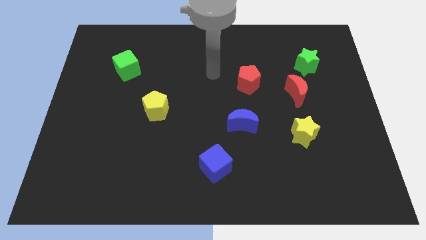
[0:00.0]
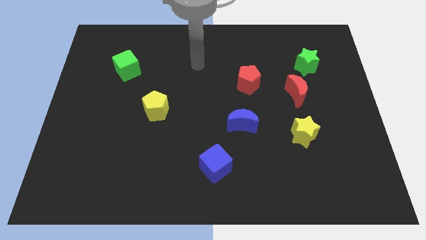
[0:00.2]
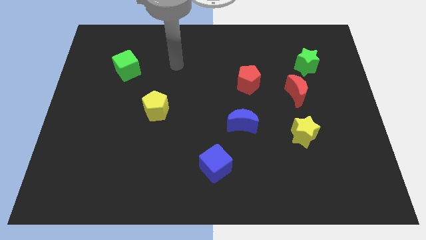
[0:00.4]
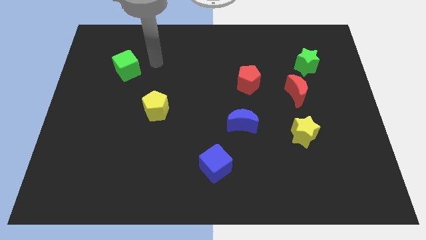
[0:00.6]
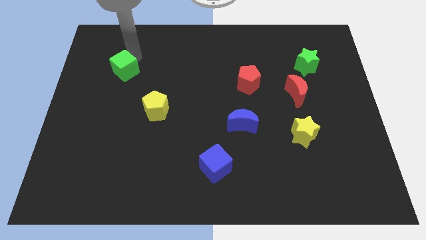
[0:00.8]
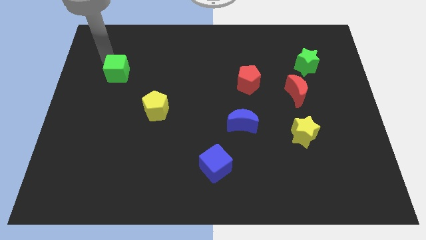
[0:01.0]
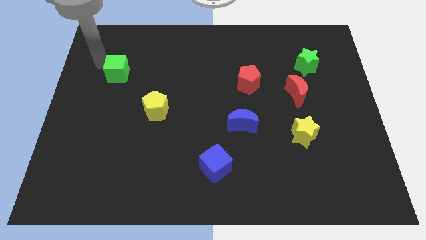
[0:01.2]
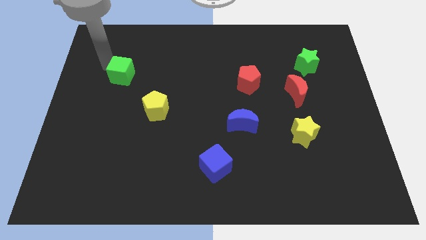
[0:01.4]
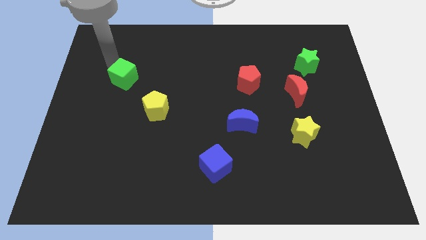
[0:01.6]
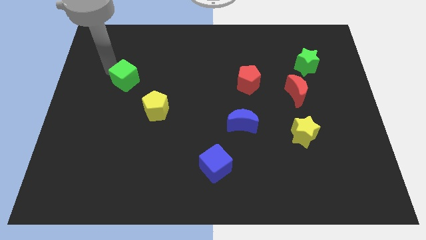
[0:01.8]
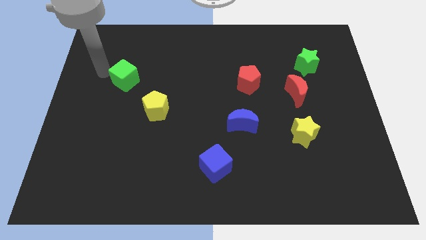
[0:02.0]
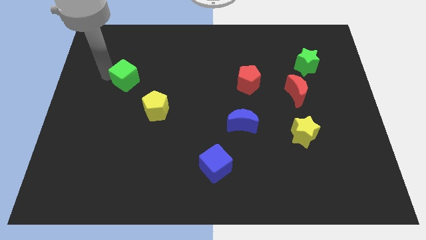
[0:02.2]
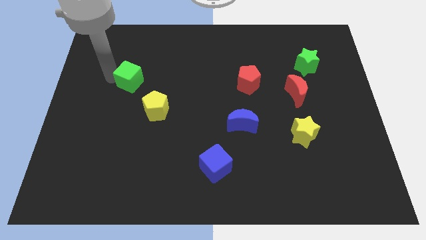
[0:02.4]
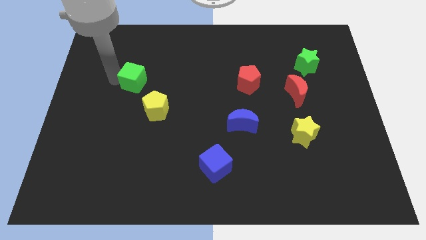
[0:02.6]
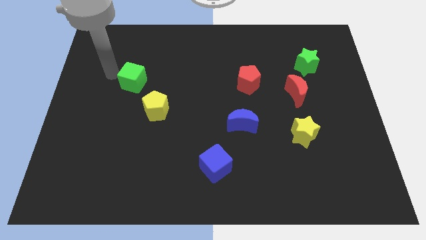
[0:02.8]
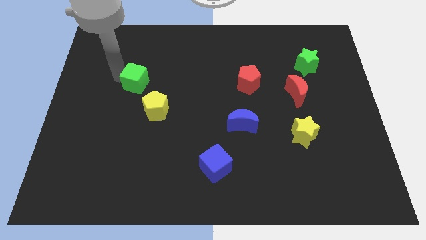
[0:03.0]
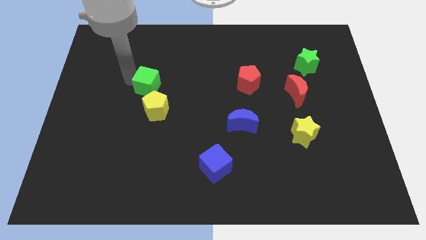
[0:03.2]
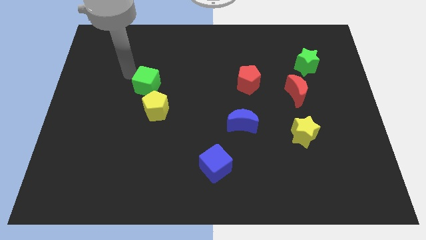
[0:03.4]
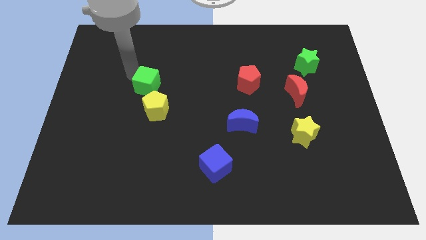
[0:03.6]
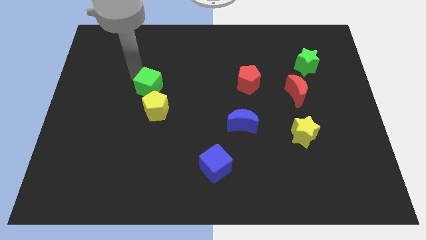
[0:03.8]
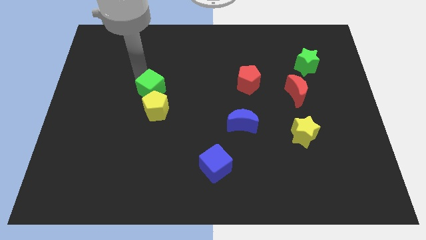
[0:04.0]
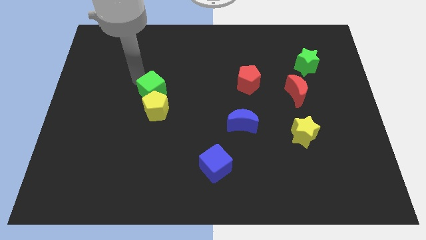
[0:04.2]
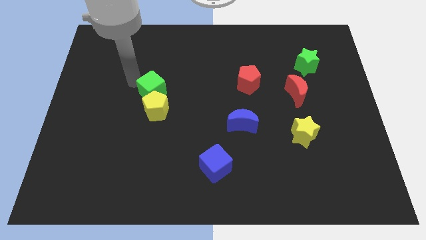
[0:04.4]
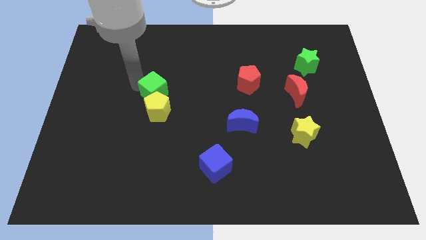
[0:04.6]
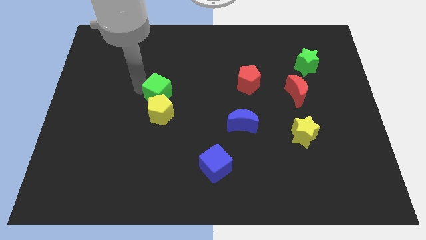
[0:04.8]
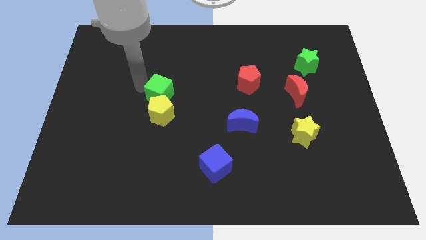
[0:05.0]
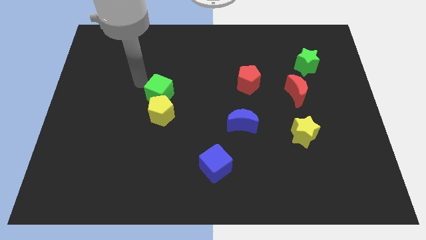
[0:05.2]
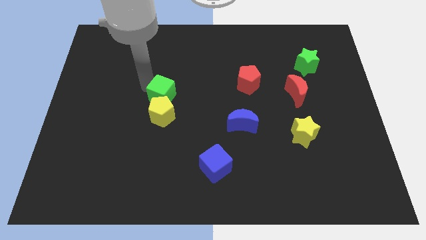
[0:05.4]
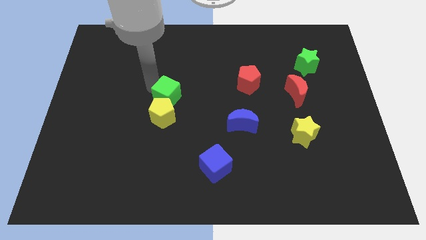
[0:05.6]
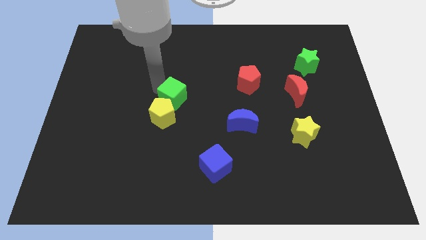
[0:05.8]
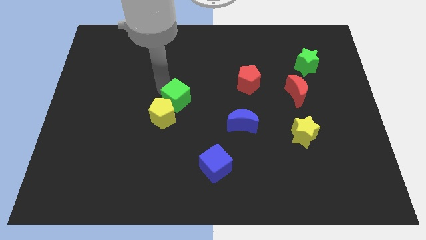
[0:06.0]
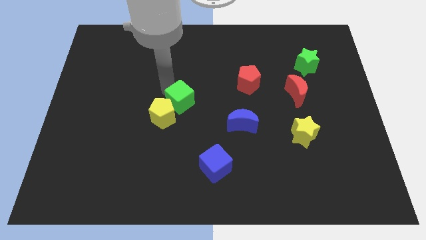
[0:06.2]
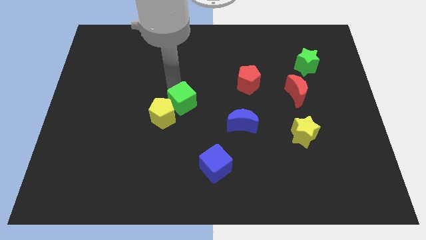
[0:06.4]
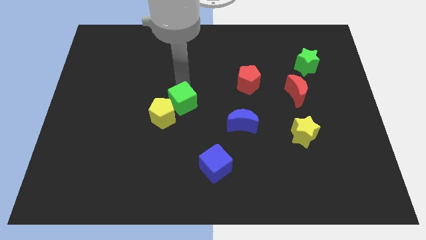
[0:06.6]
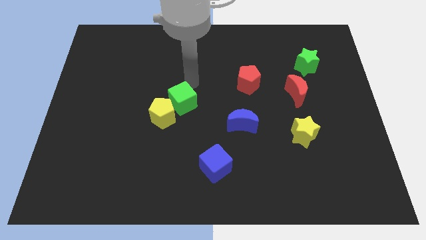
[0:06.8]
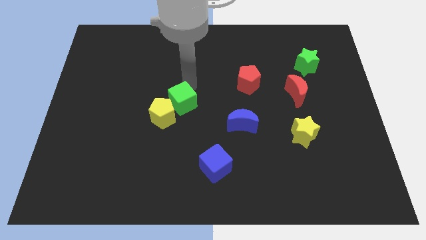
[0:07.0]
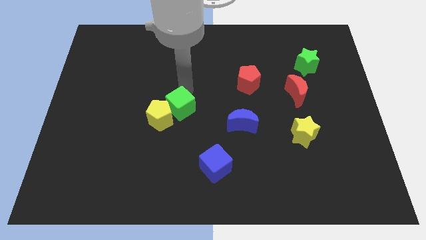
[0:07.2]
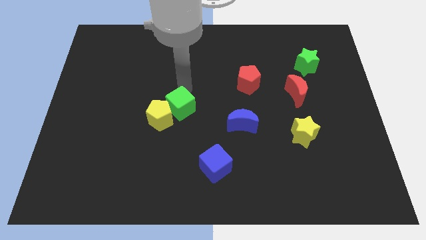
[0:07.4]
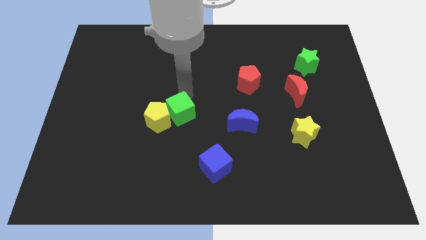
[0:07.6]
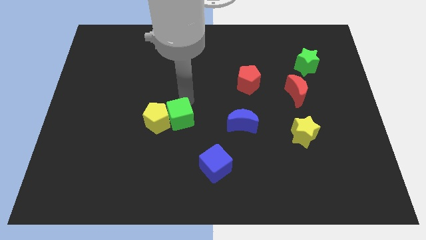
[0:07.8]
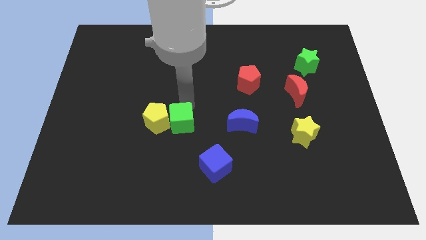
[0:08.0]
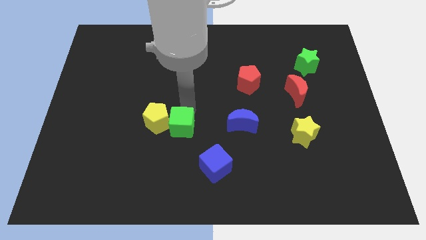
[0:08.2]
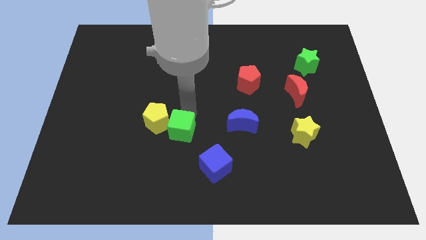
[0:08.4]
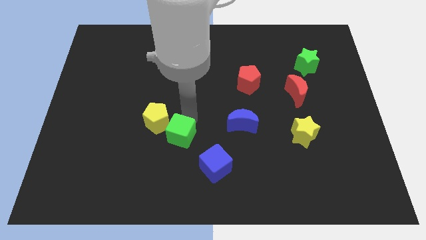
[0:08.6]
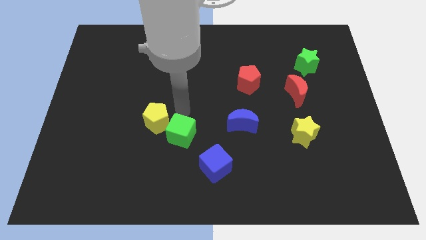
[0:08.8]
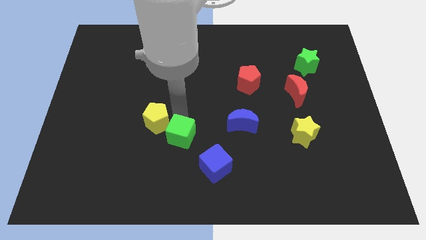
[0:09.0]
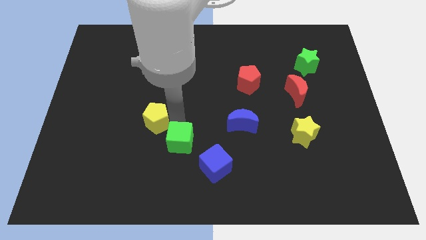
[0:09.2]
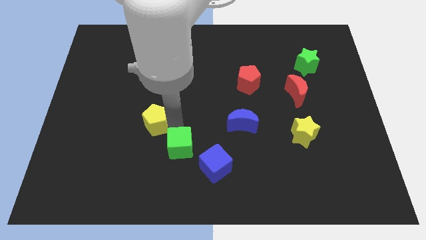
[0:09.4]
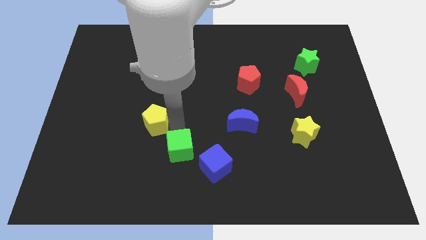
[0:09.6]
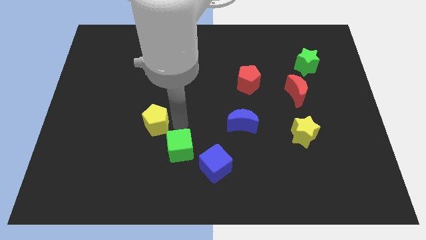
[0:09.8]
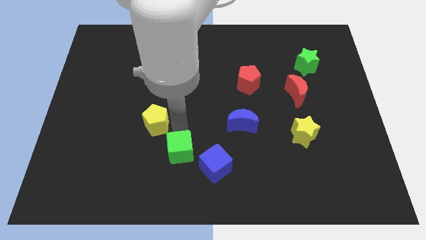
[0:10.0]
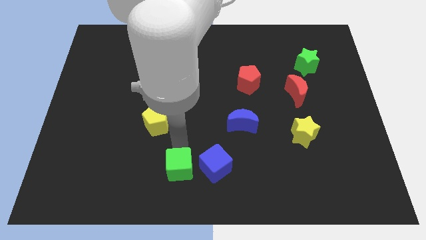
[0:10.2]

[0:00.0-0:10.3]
put the green cube to the bottom

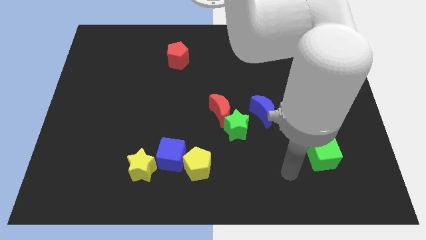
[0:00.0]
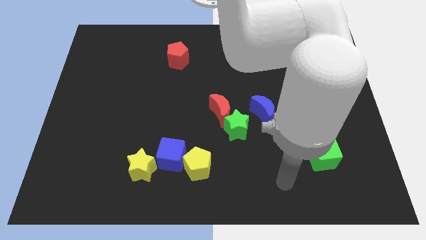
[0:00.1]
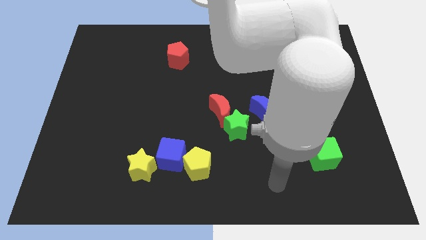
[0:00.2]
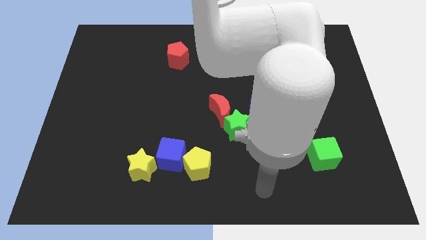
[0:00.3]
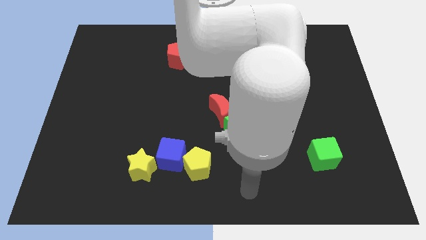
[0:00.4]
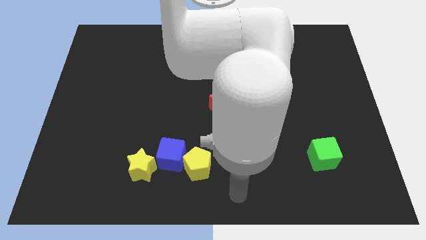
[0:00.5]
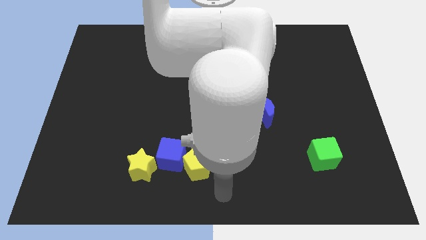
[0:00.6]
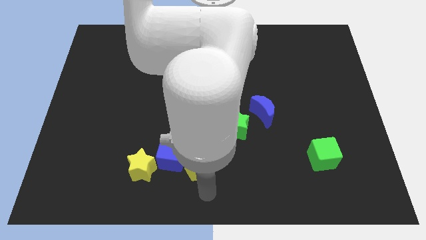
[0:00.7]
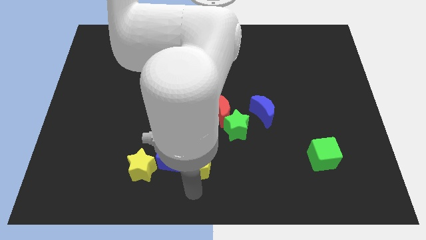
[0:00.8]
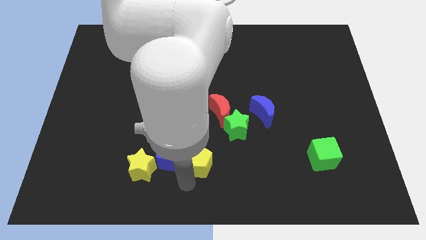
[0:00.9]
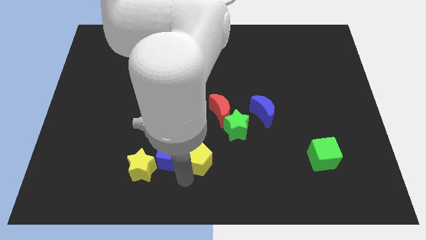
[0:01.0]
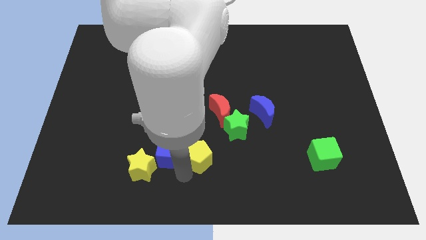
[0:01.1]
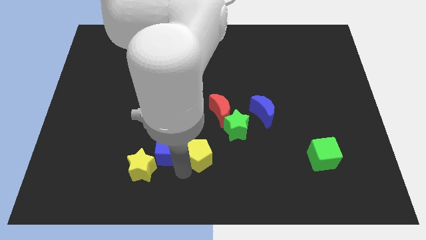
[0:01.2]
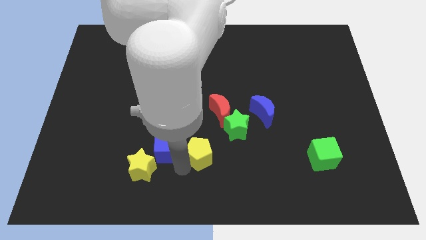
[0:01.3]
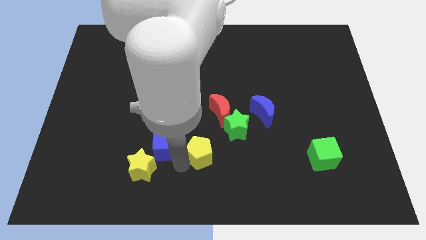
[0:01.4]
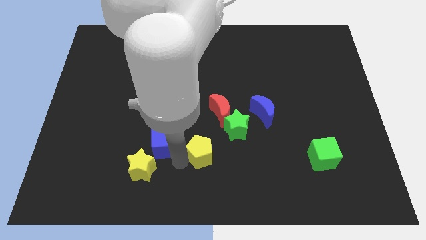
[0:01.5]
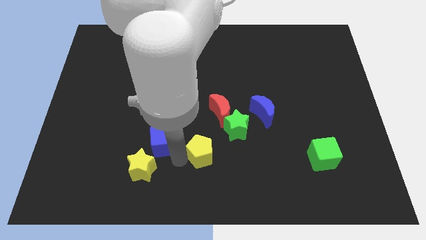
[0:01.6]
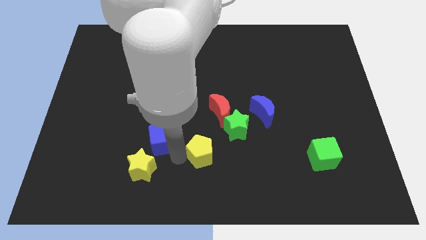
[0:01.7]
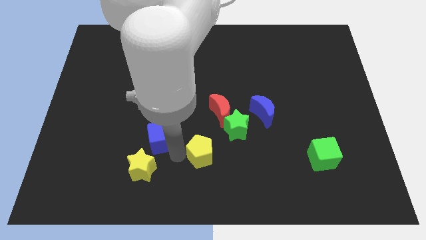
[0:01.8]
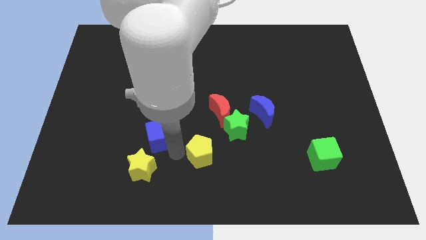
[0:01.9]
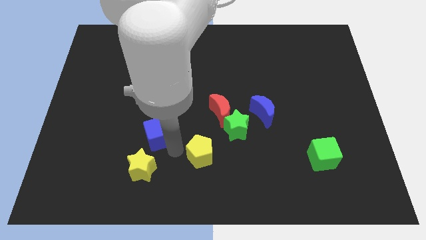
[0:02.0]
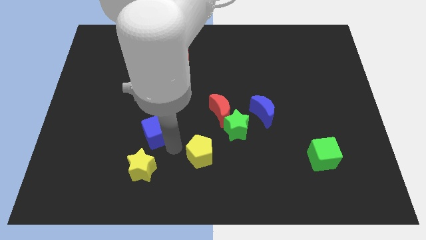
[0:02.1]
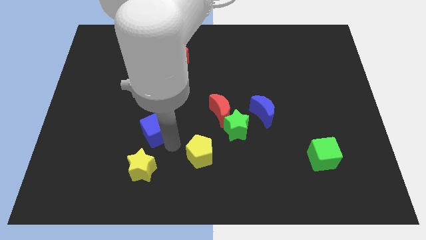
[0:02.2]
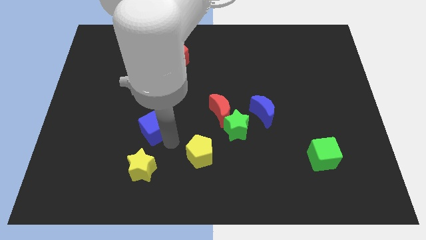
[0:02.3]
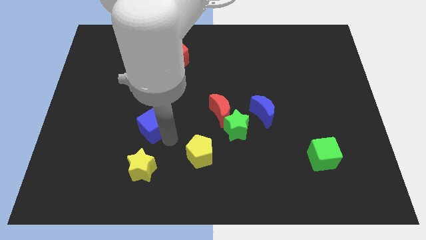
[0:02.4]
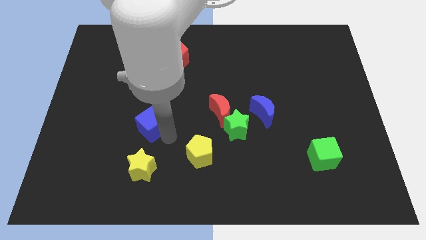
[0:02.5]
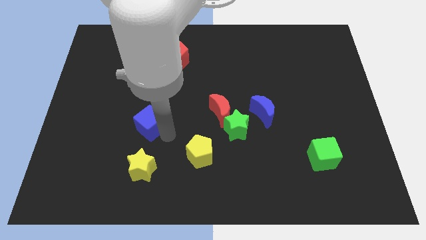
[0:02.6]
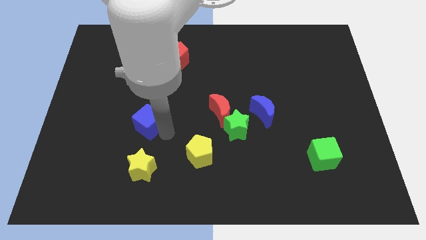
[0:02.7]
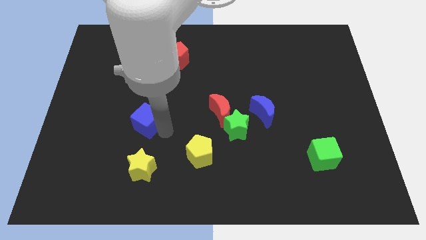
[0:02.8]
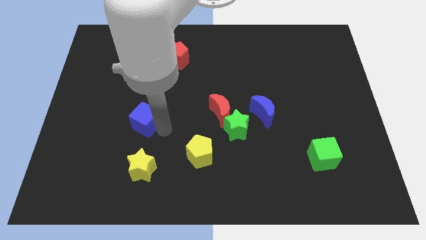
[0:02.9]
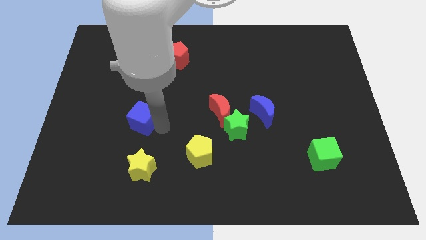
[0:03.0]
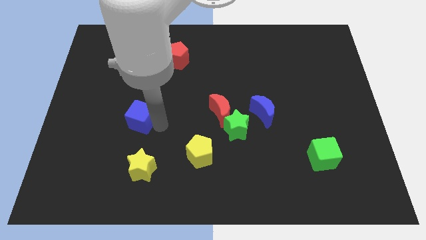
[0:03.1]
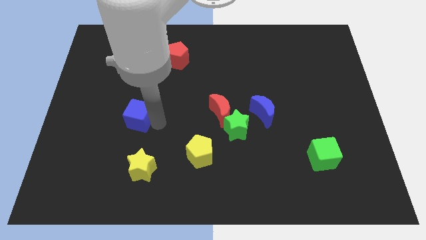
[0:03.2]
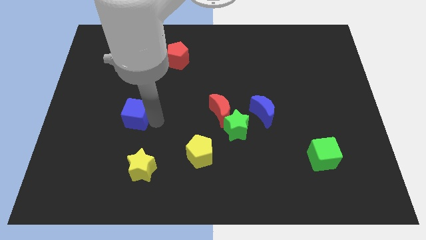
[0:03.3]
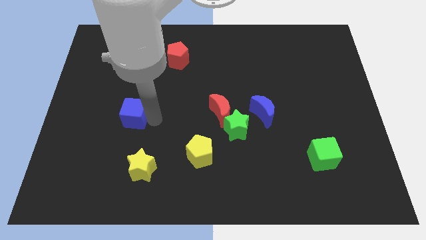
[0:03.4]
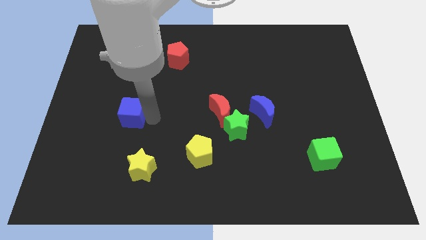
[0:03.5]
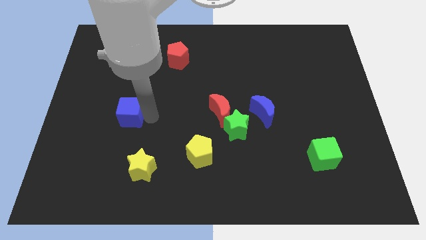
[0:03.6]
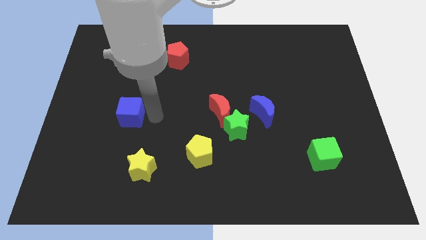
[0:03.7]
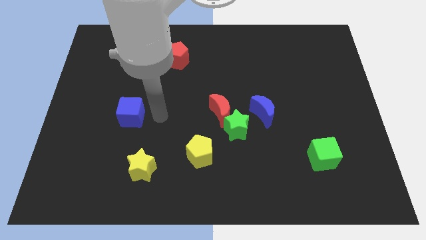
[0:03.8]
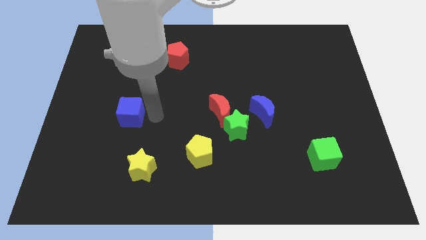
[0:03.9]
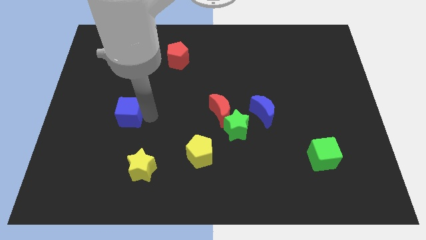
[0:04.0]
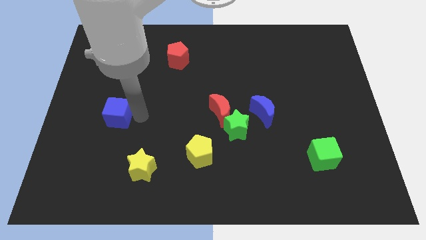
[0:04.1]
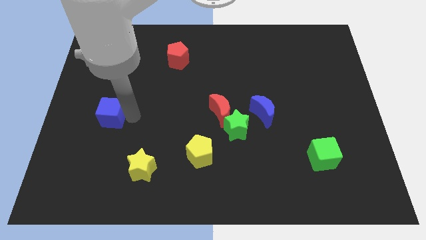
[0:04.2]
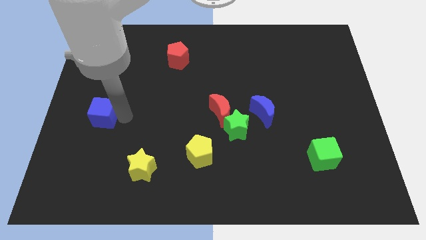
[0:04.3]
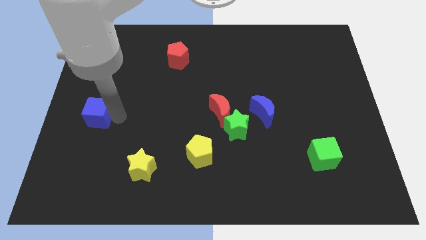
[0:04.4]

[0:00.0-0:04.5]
move the blue cube to the left side of the board
